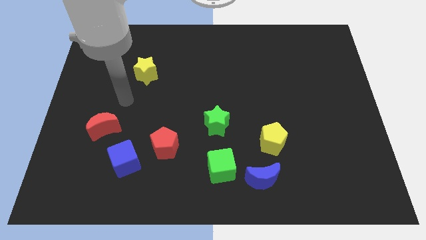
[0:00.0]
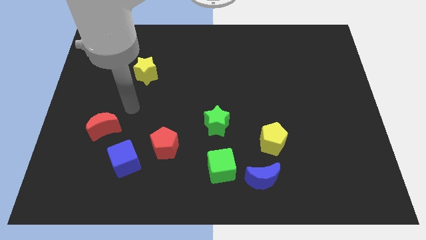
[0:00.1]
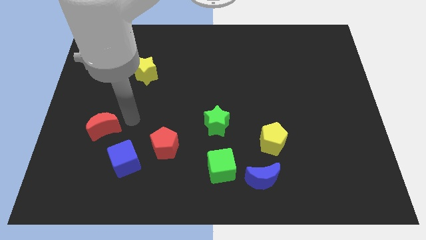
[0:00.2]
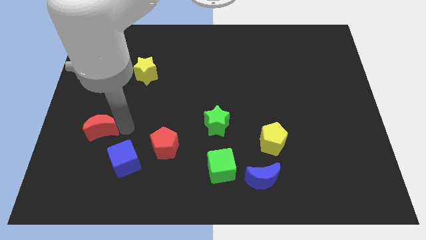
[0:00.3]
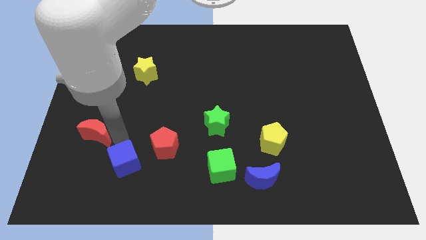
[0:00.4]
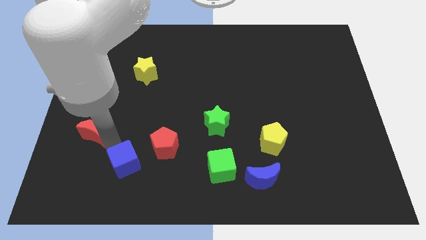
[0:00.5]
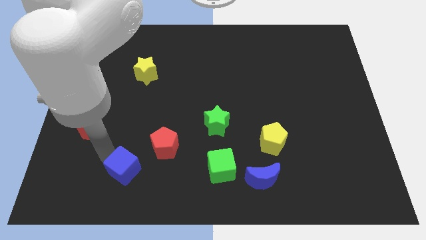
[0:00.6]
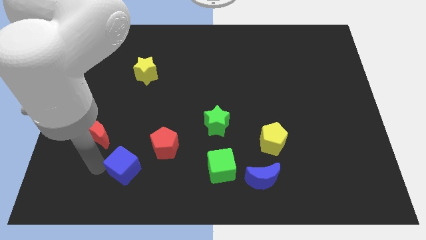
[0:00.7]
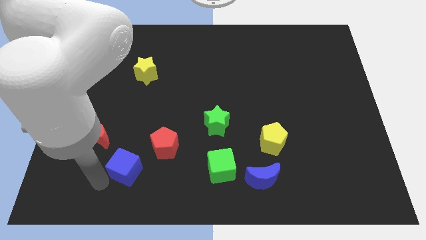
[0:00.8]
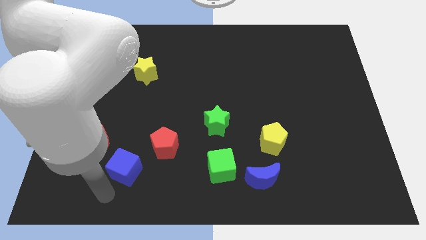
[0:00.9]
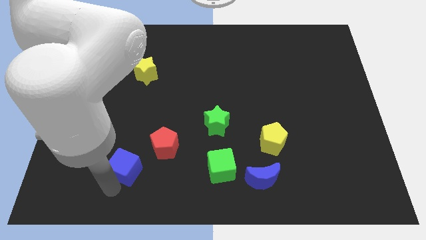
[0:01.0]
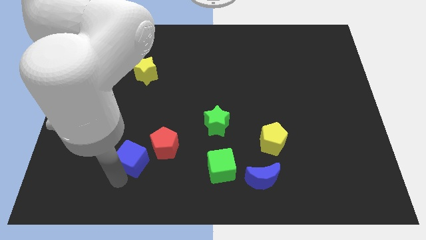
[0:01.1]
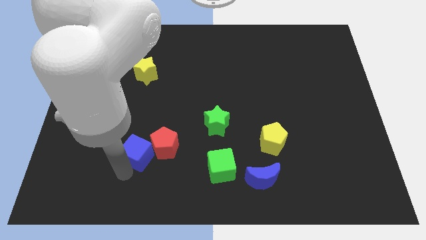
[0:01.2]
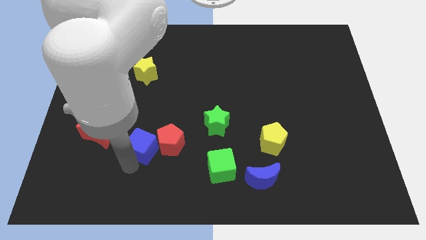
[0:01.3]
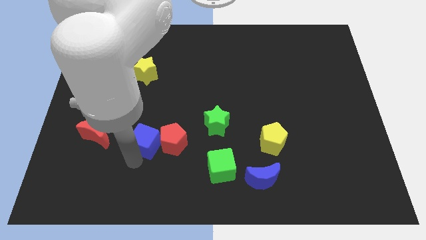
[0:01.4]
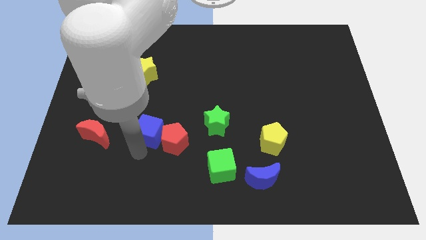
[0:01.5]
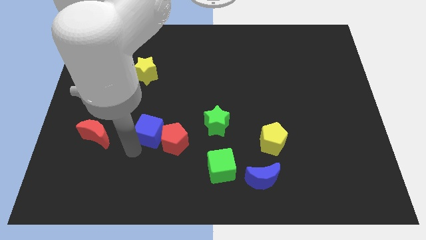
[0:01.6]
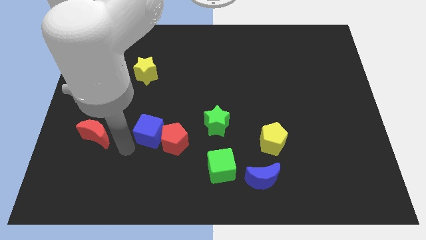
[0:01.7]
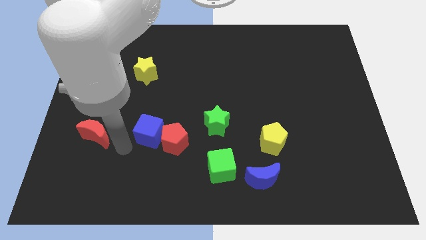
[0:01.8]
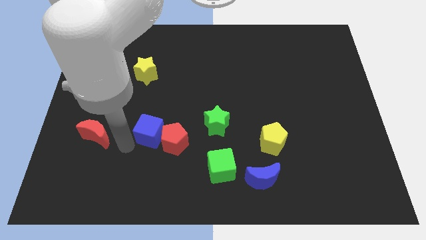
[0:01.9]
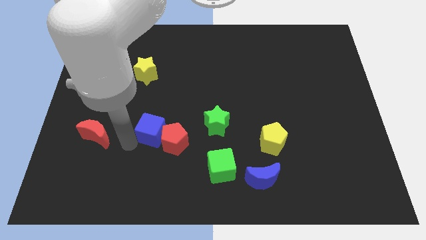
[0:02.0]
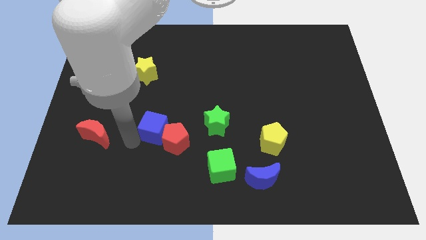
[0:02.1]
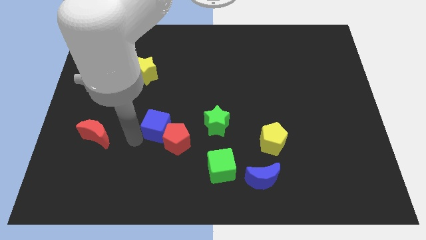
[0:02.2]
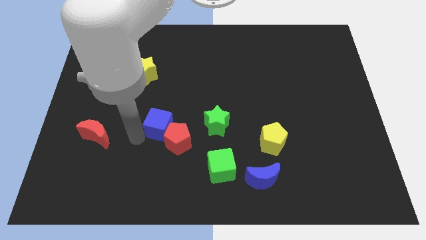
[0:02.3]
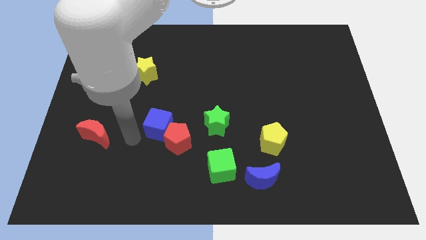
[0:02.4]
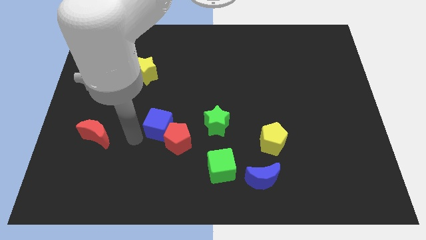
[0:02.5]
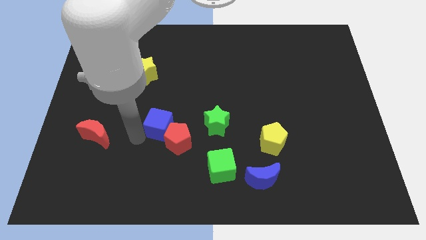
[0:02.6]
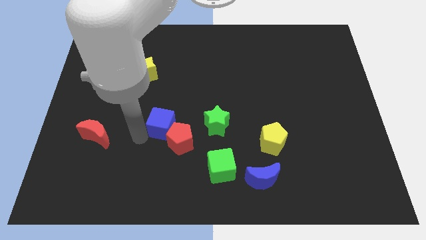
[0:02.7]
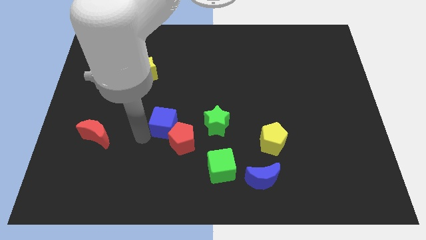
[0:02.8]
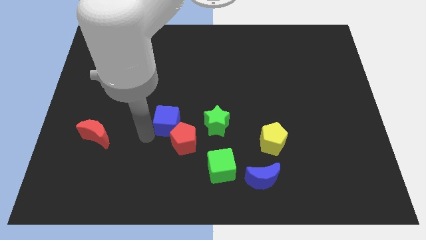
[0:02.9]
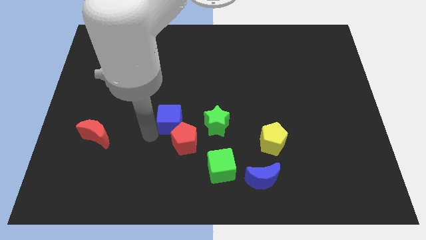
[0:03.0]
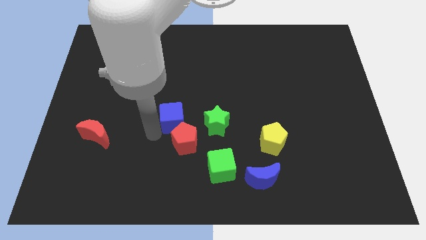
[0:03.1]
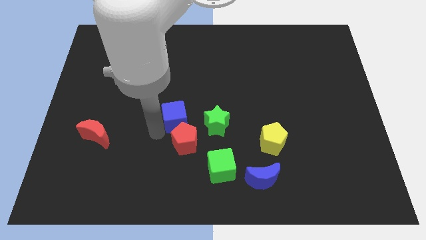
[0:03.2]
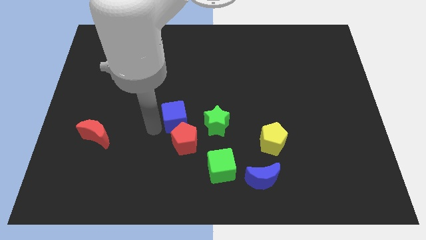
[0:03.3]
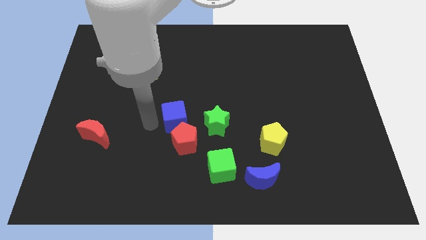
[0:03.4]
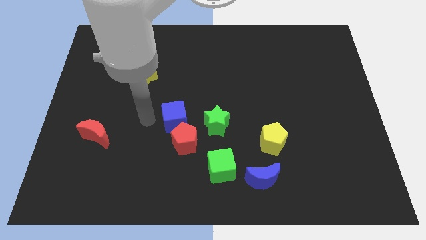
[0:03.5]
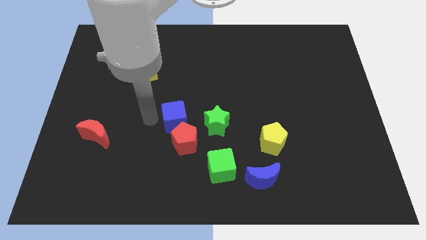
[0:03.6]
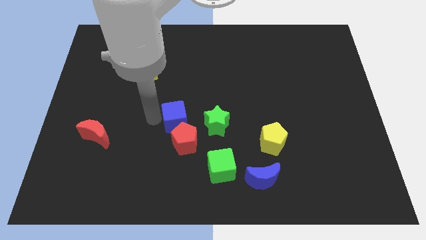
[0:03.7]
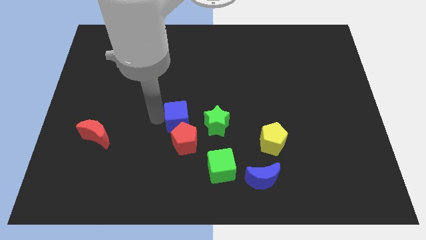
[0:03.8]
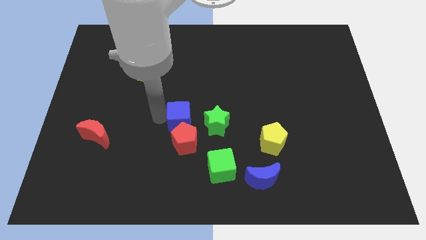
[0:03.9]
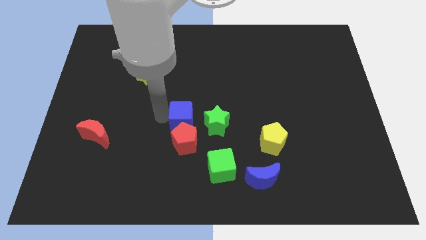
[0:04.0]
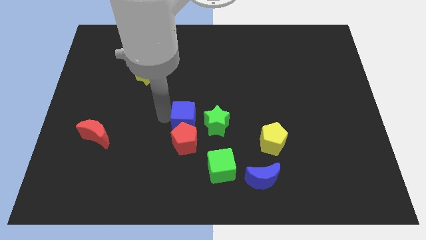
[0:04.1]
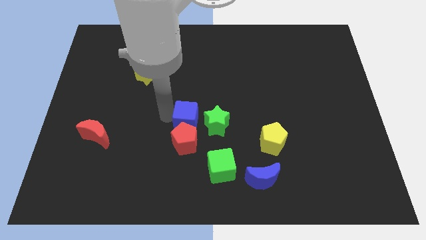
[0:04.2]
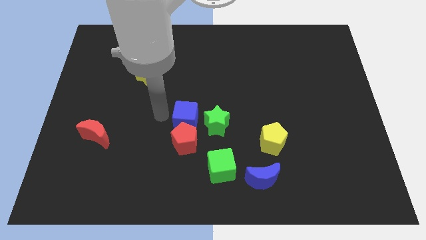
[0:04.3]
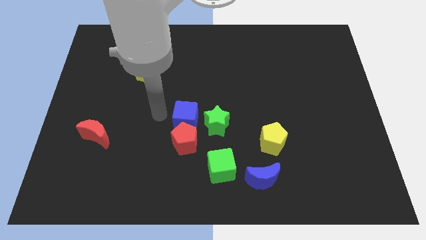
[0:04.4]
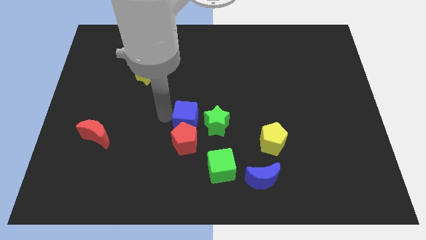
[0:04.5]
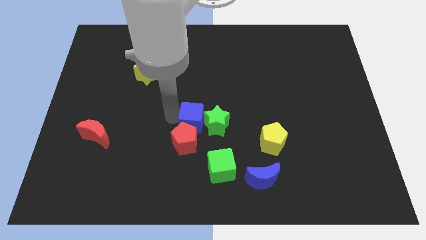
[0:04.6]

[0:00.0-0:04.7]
put the blue cube towards the green star

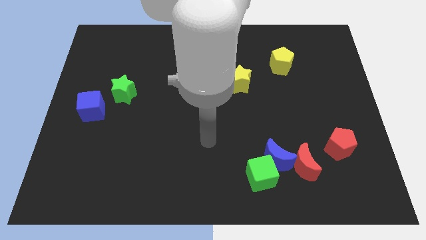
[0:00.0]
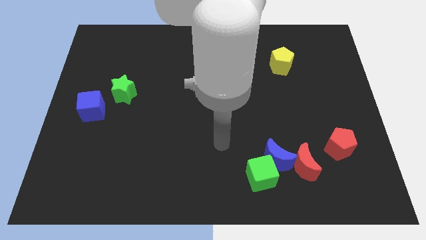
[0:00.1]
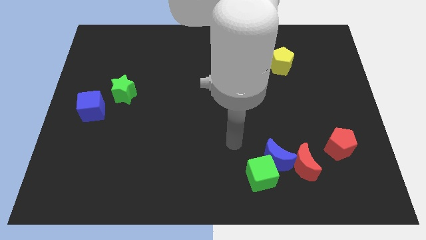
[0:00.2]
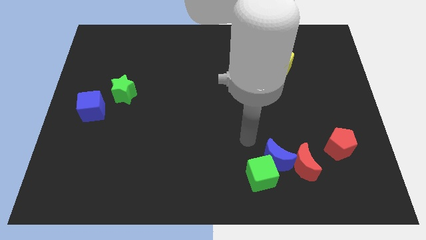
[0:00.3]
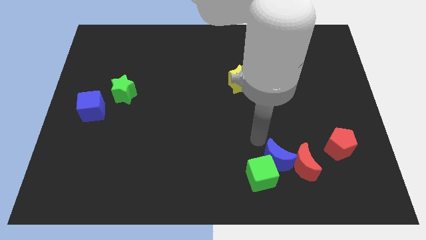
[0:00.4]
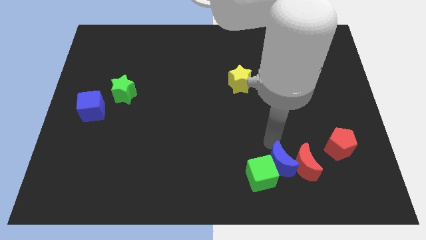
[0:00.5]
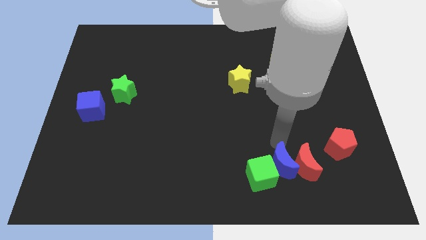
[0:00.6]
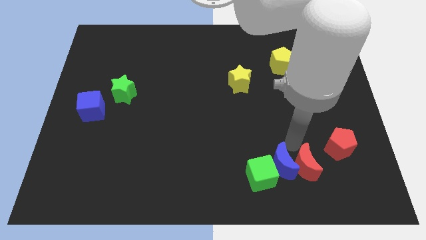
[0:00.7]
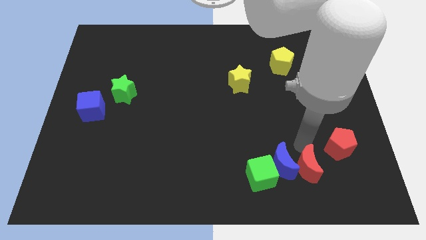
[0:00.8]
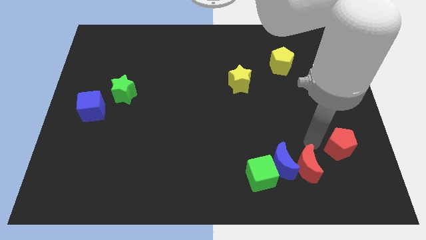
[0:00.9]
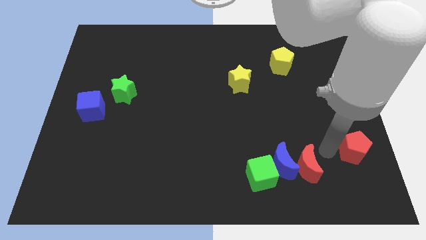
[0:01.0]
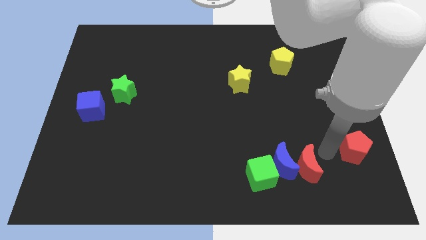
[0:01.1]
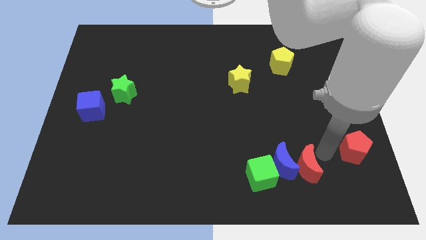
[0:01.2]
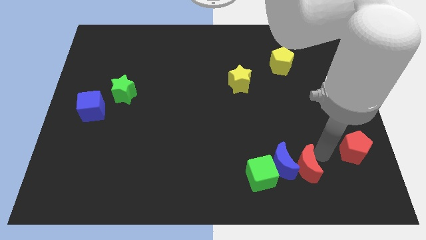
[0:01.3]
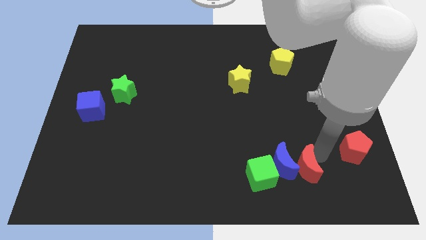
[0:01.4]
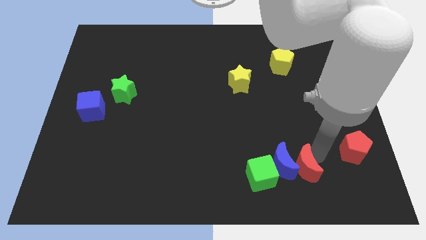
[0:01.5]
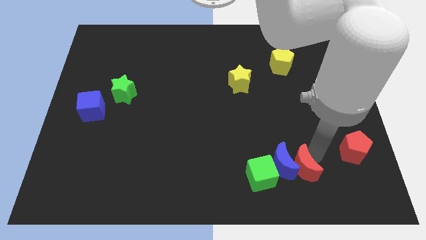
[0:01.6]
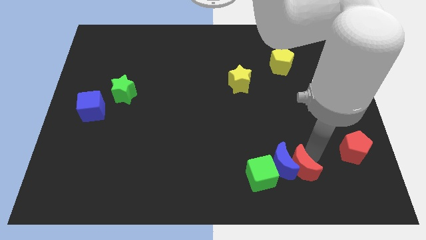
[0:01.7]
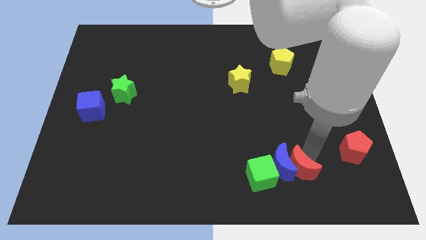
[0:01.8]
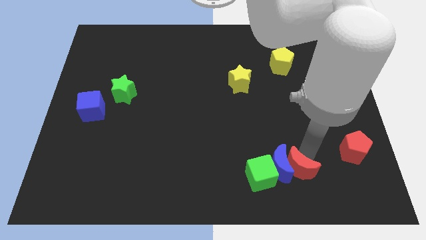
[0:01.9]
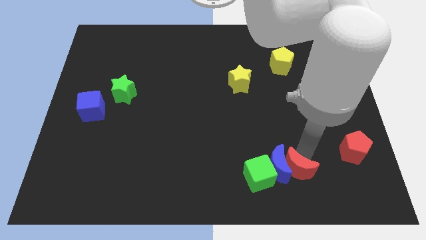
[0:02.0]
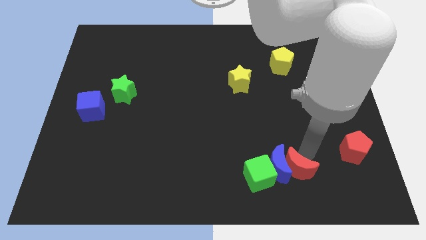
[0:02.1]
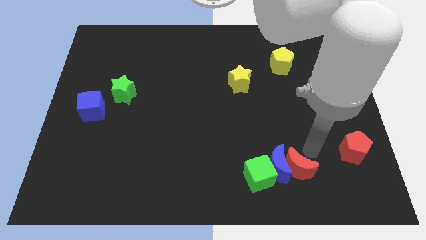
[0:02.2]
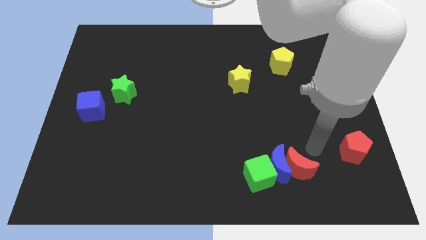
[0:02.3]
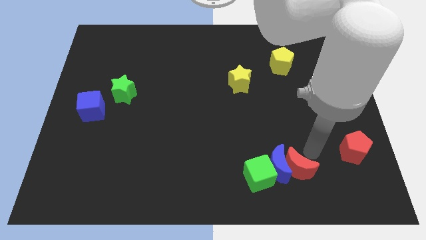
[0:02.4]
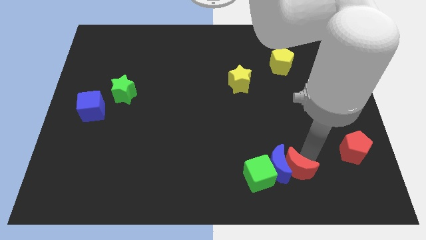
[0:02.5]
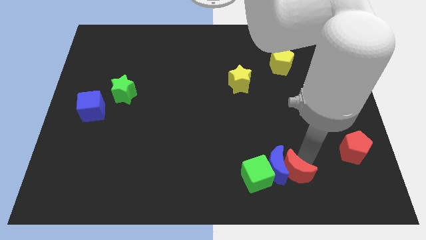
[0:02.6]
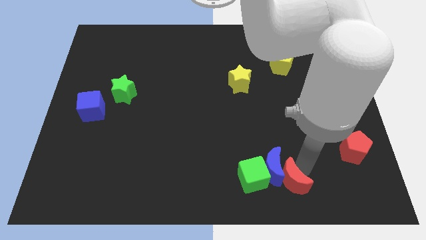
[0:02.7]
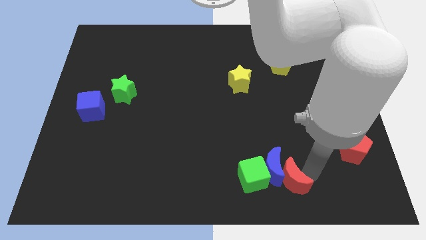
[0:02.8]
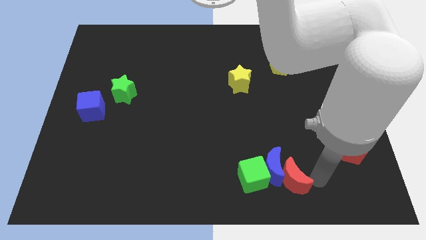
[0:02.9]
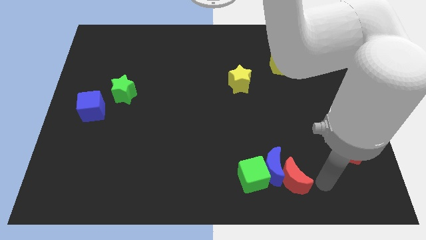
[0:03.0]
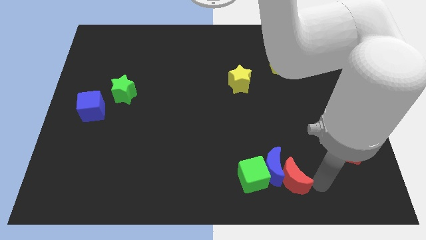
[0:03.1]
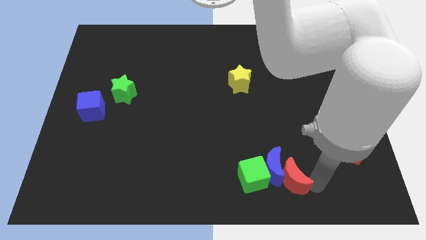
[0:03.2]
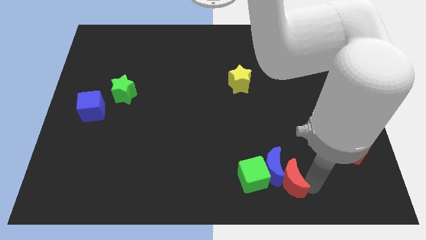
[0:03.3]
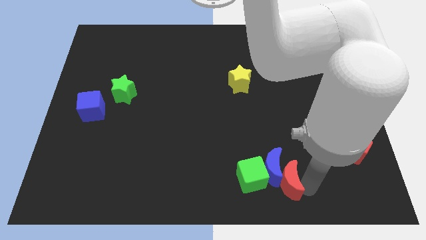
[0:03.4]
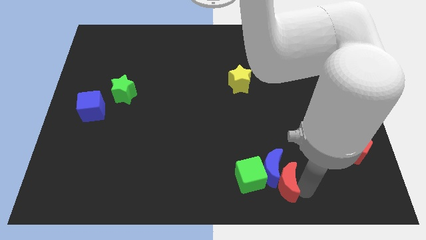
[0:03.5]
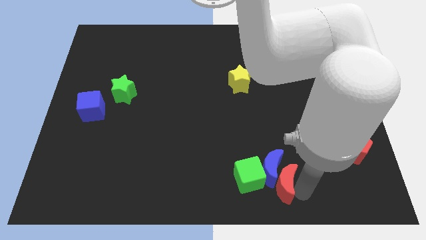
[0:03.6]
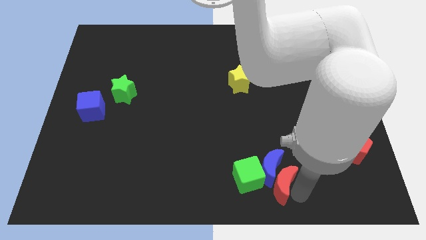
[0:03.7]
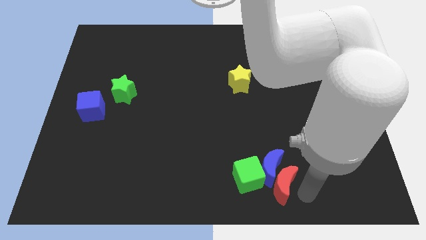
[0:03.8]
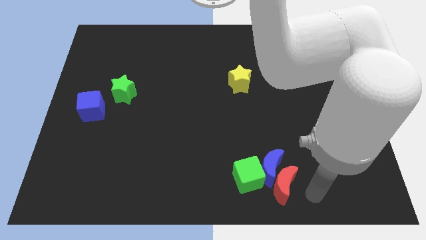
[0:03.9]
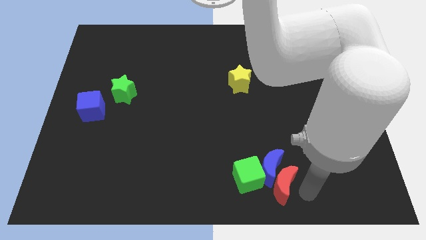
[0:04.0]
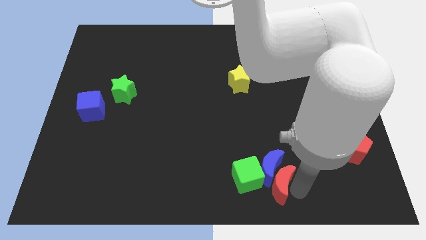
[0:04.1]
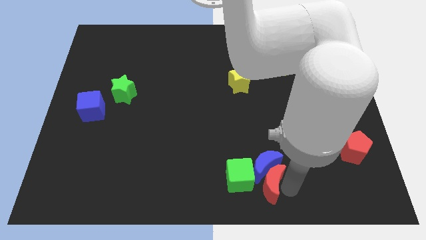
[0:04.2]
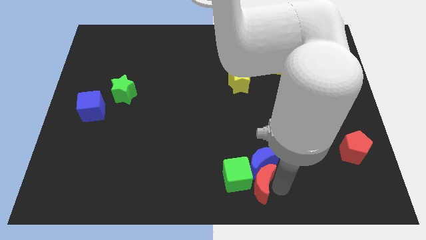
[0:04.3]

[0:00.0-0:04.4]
move the red moon towards the green cube
